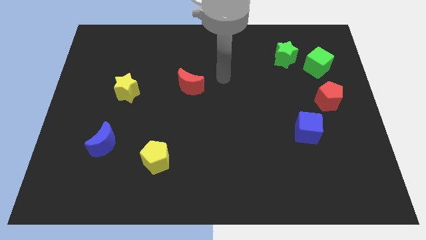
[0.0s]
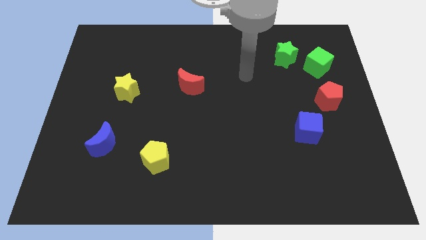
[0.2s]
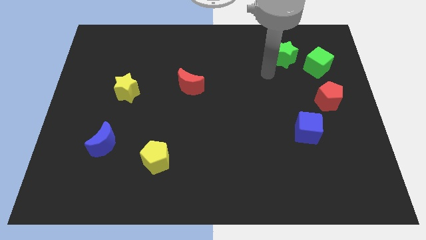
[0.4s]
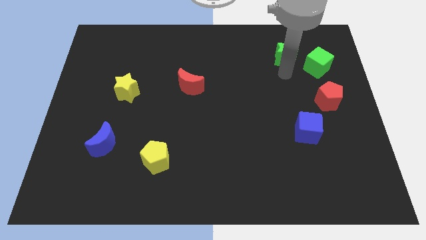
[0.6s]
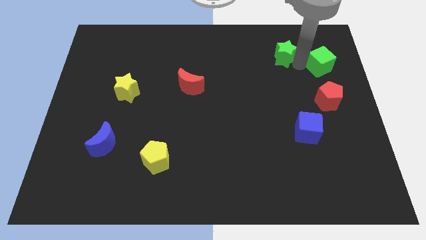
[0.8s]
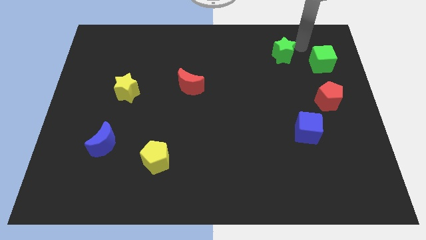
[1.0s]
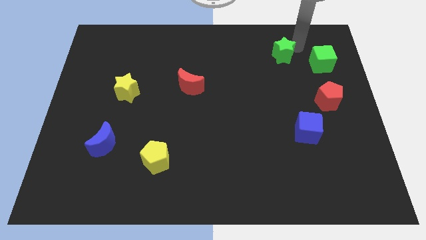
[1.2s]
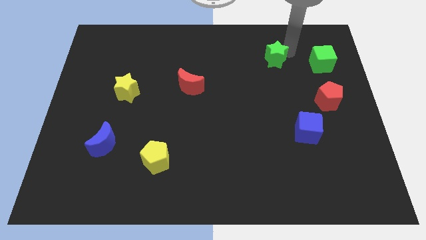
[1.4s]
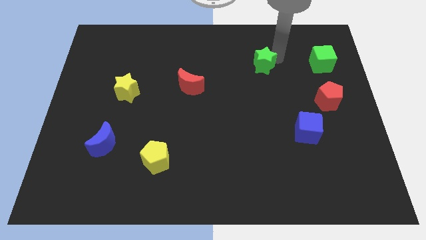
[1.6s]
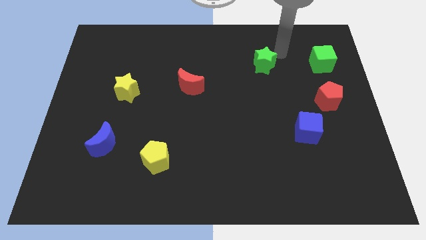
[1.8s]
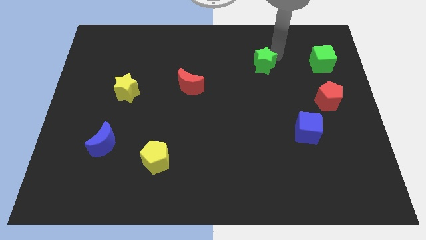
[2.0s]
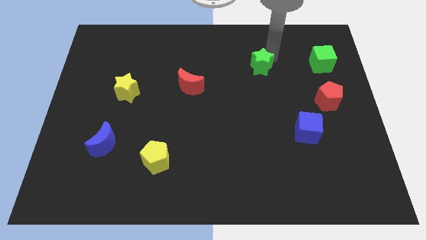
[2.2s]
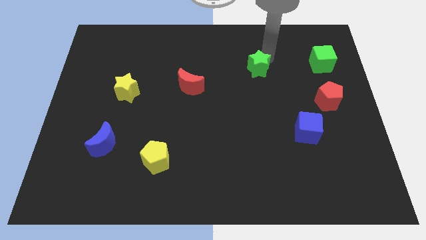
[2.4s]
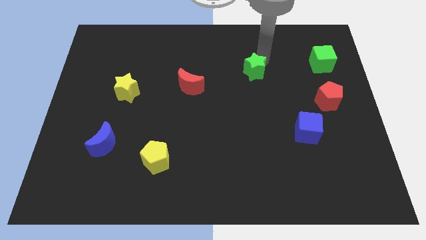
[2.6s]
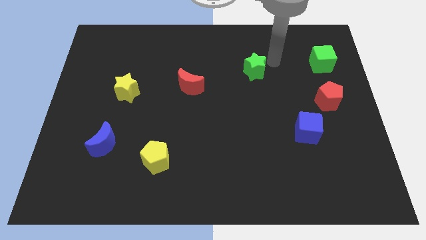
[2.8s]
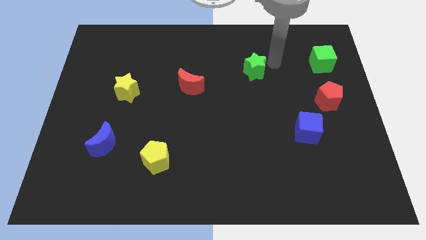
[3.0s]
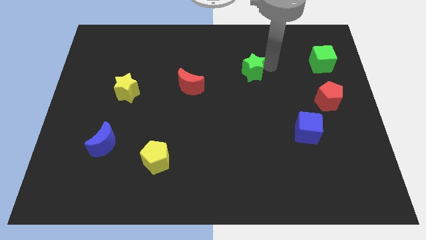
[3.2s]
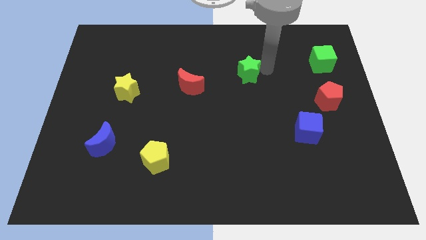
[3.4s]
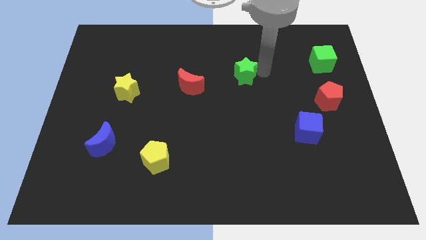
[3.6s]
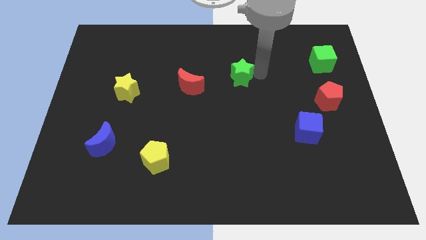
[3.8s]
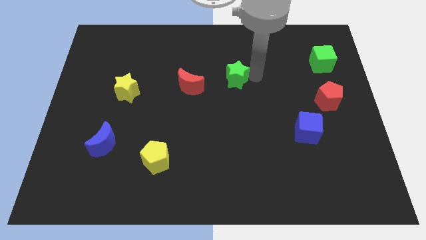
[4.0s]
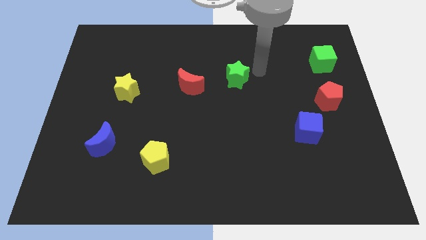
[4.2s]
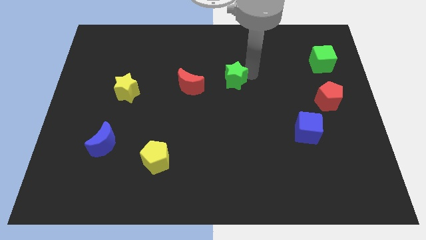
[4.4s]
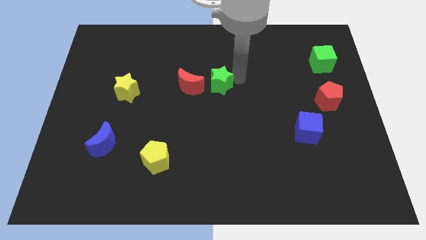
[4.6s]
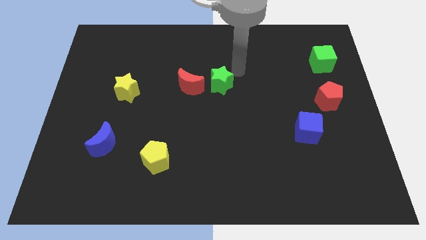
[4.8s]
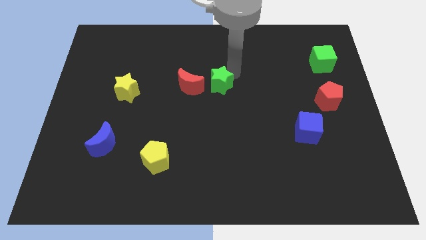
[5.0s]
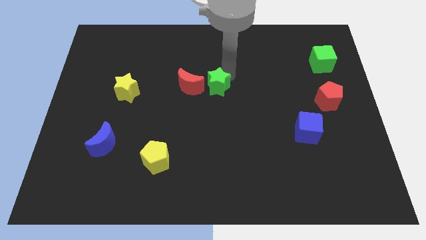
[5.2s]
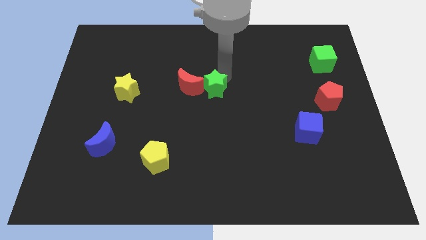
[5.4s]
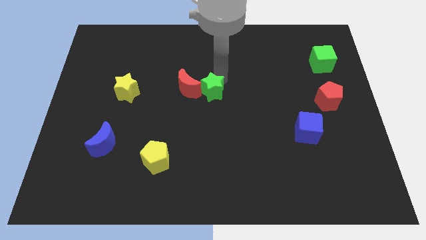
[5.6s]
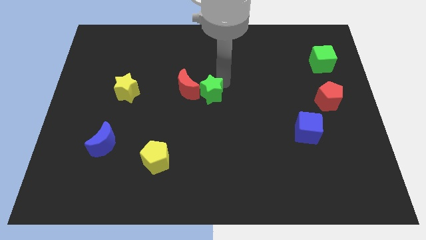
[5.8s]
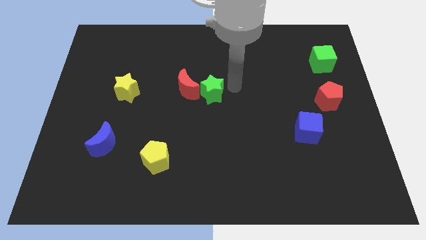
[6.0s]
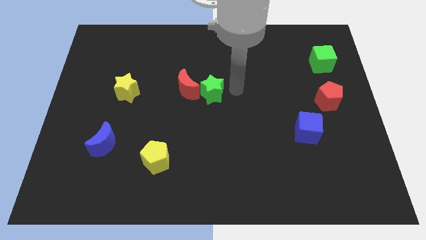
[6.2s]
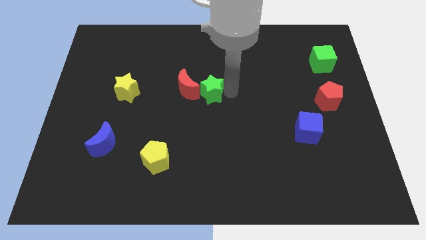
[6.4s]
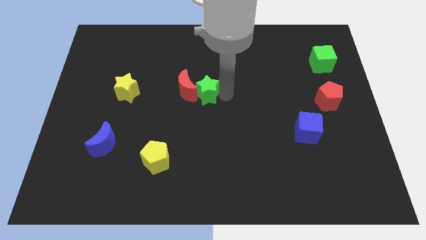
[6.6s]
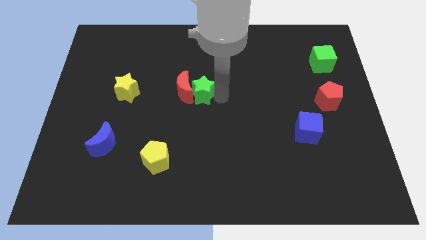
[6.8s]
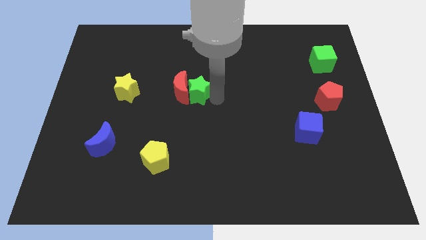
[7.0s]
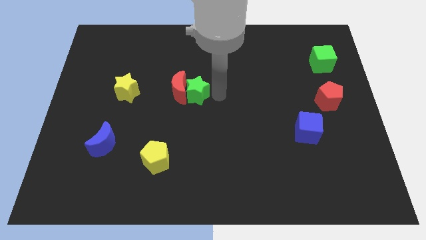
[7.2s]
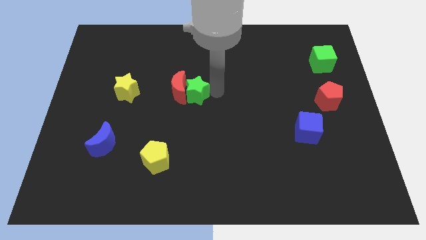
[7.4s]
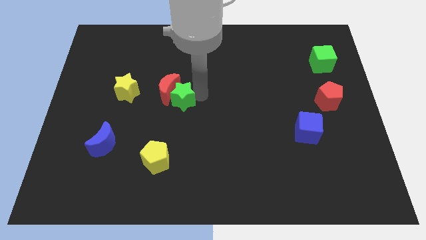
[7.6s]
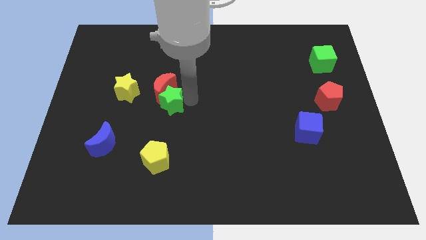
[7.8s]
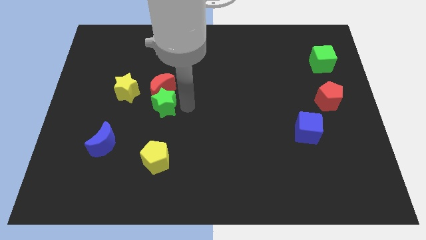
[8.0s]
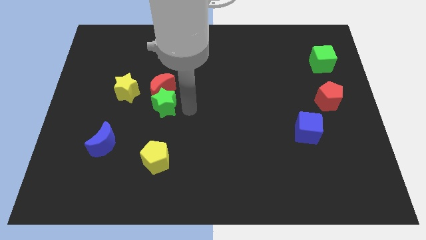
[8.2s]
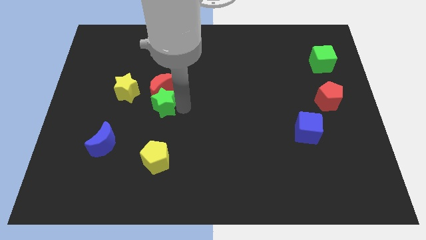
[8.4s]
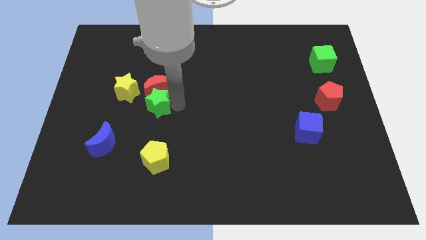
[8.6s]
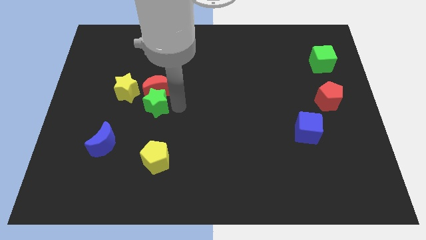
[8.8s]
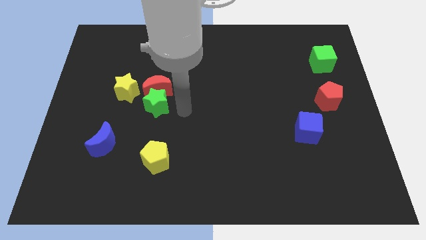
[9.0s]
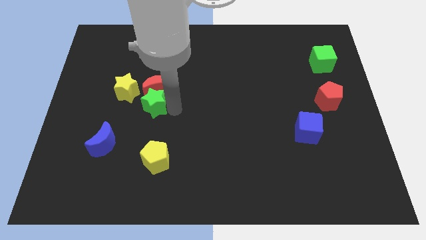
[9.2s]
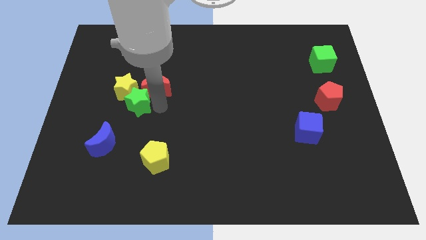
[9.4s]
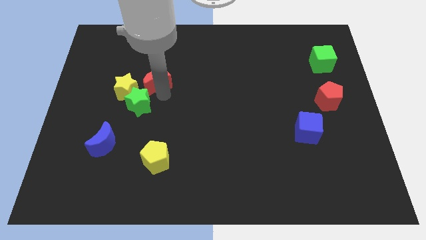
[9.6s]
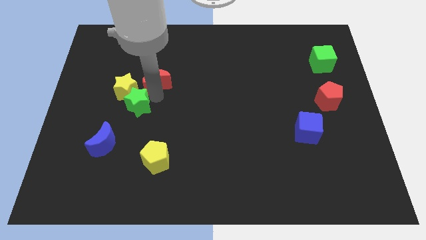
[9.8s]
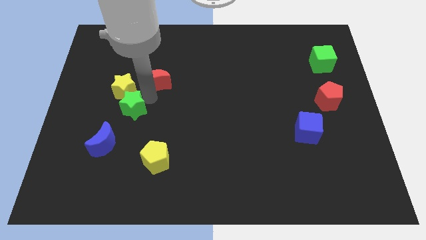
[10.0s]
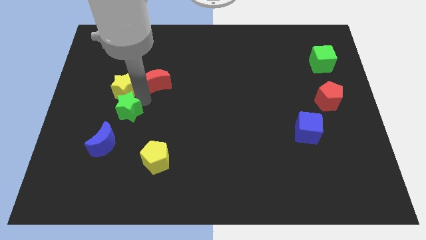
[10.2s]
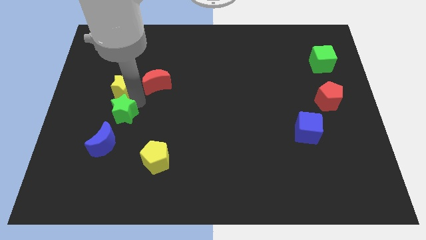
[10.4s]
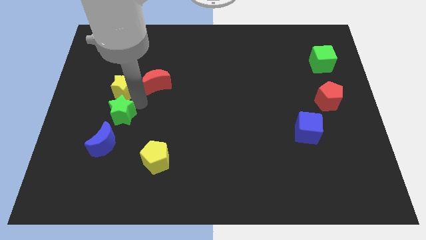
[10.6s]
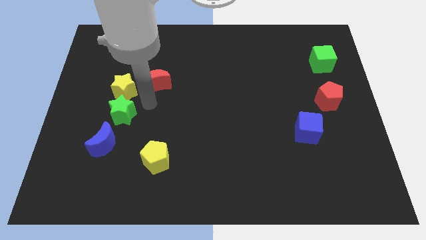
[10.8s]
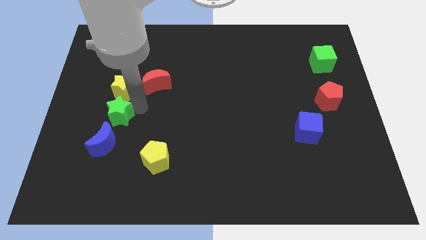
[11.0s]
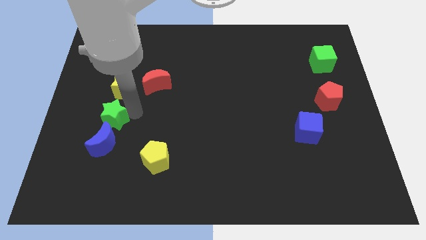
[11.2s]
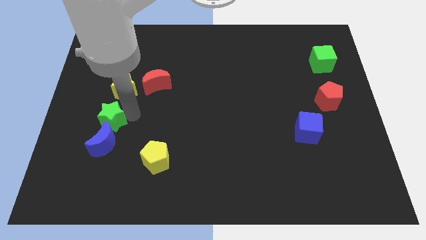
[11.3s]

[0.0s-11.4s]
push the green star to the top left of the blue moon

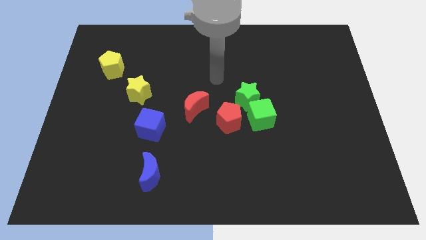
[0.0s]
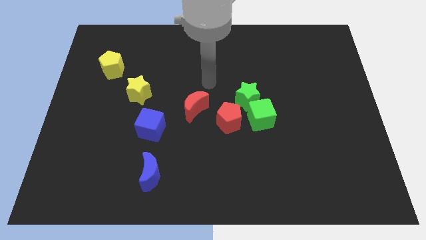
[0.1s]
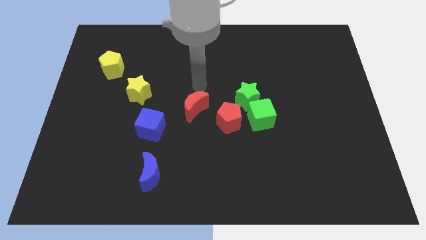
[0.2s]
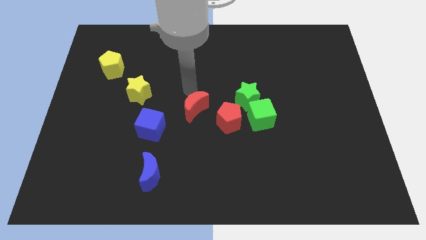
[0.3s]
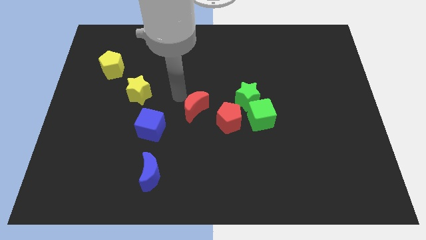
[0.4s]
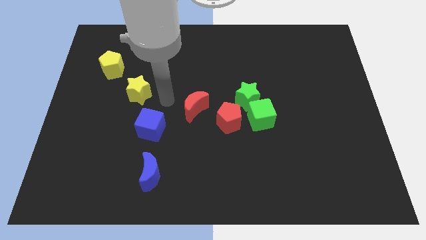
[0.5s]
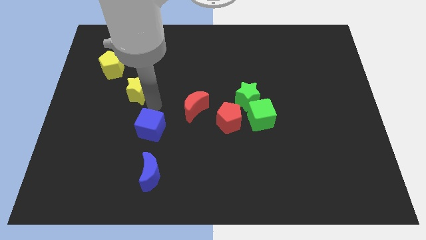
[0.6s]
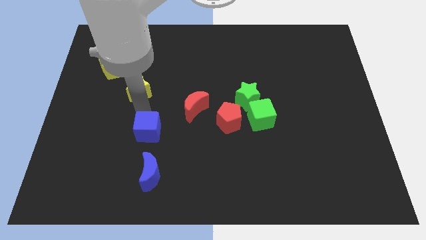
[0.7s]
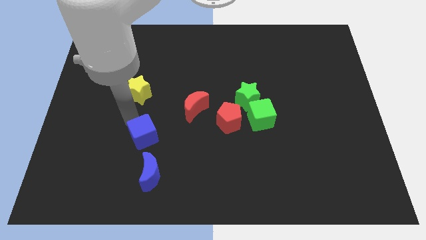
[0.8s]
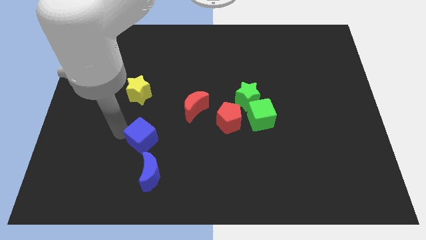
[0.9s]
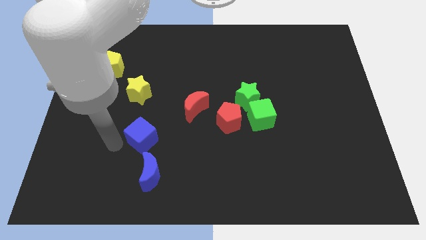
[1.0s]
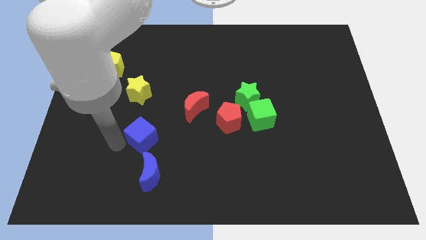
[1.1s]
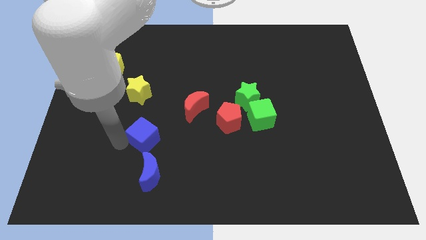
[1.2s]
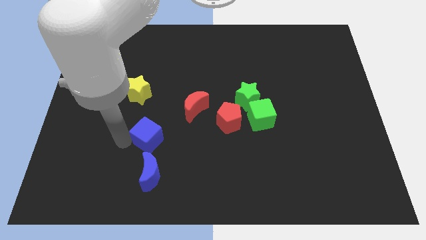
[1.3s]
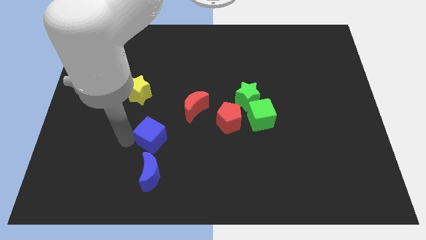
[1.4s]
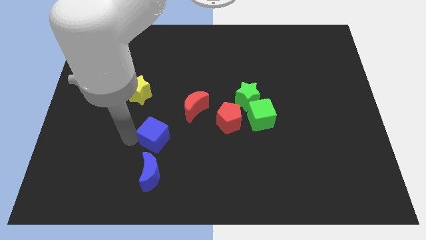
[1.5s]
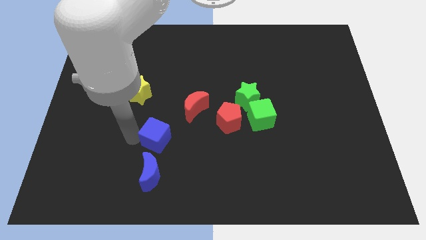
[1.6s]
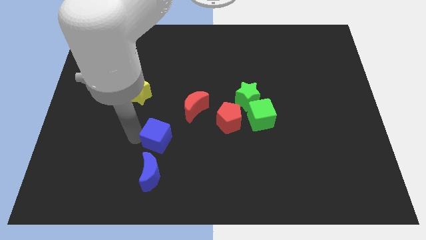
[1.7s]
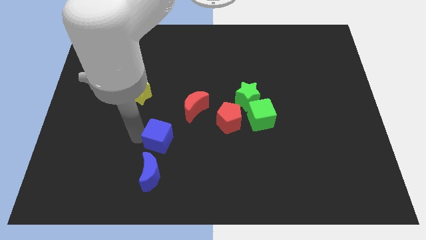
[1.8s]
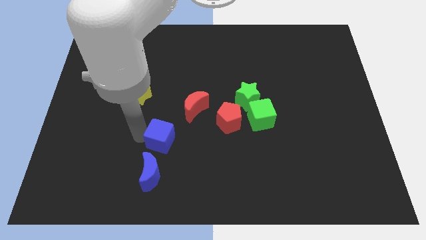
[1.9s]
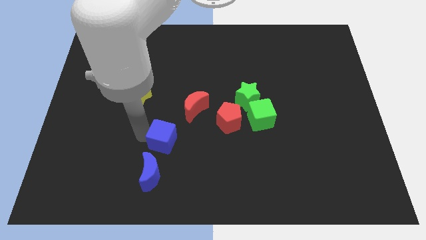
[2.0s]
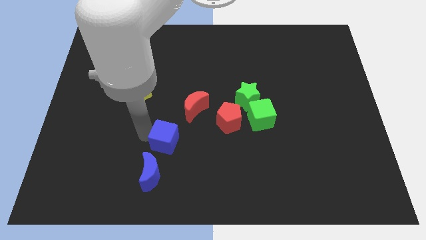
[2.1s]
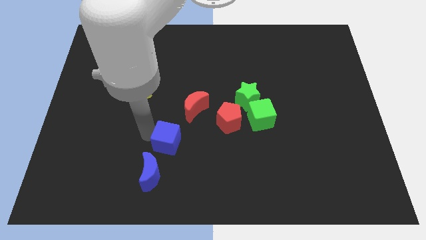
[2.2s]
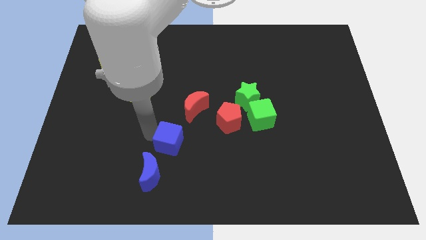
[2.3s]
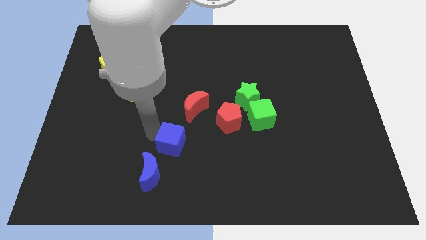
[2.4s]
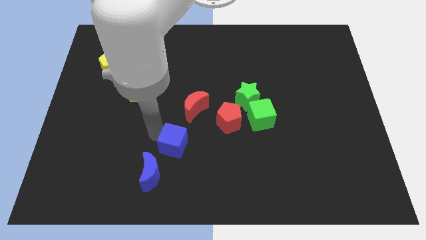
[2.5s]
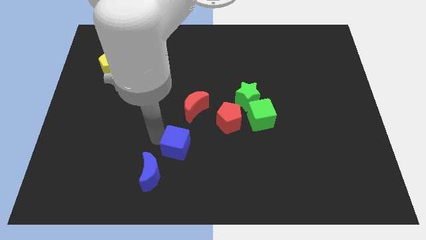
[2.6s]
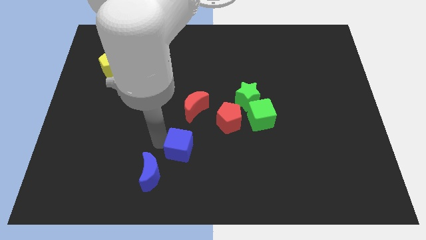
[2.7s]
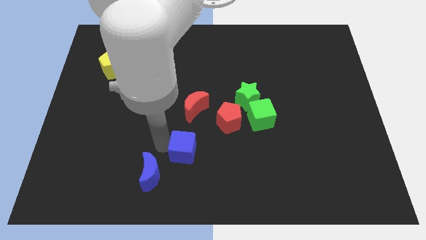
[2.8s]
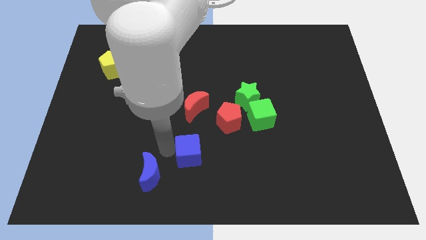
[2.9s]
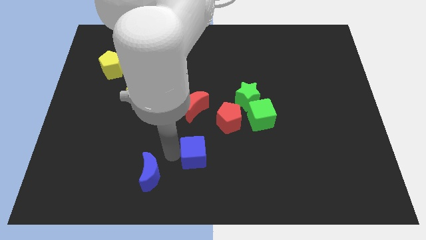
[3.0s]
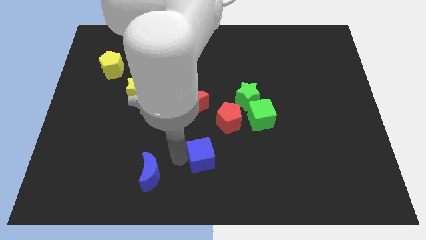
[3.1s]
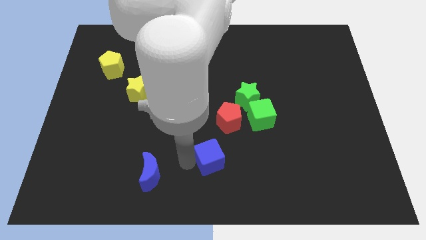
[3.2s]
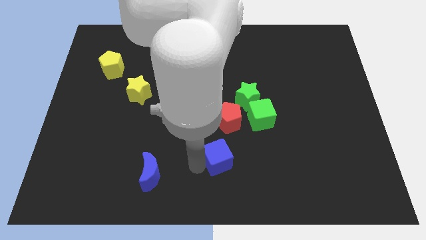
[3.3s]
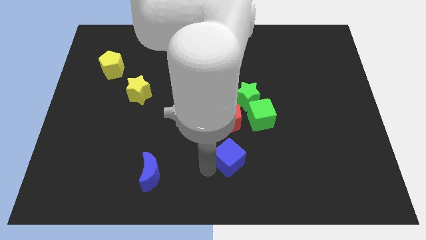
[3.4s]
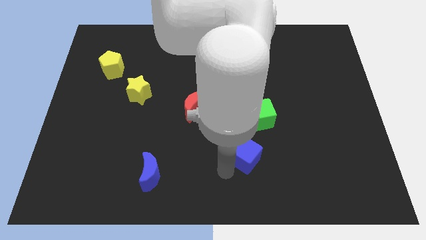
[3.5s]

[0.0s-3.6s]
move the blue cube to the bottom right of the red pentagon
